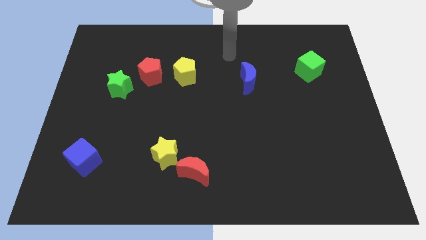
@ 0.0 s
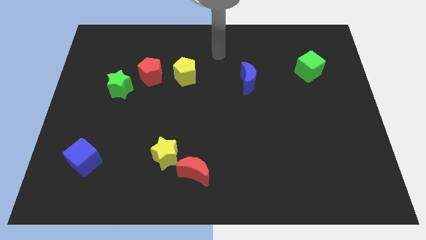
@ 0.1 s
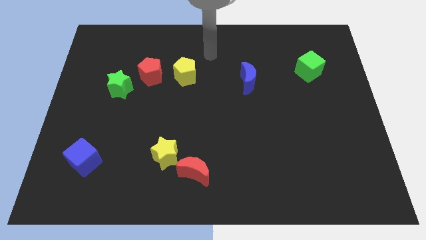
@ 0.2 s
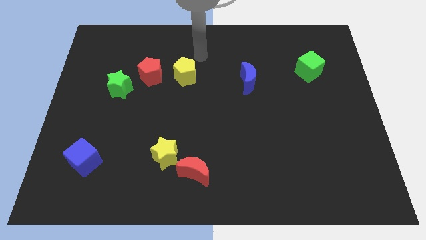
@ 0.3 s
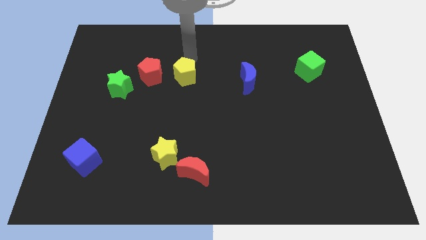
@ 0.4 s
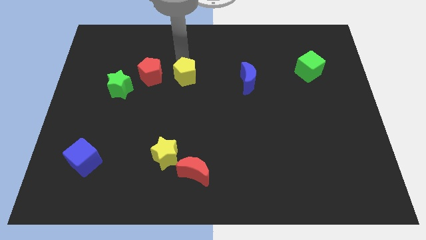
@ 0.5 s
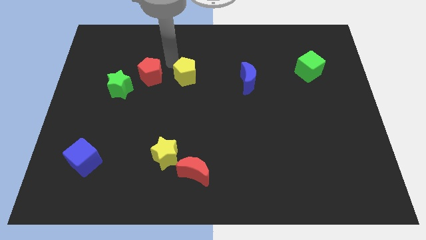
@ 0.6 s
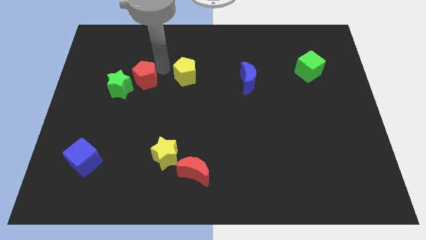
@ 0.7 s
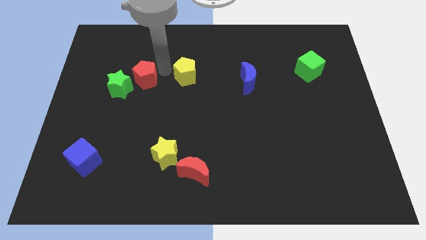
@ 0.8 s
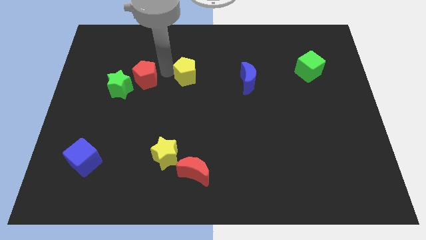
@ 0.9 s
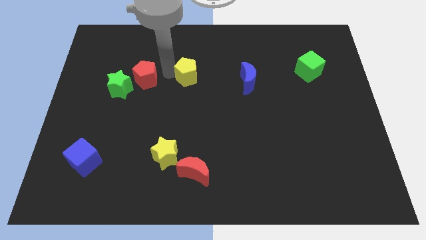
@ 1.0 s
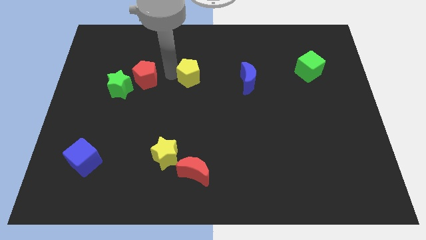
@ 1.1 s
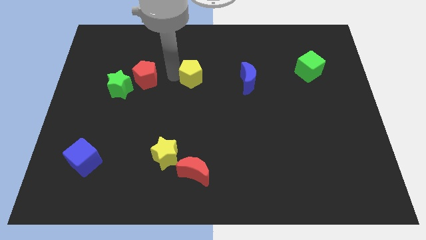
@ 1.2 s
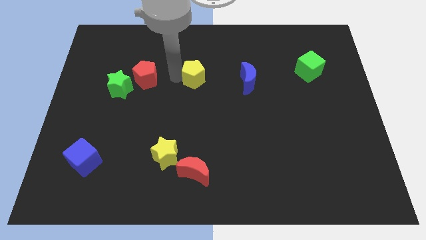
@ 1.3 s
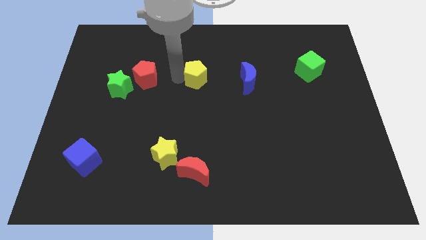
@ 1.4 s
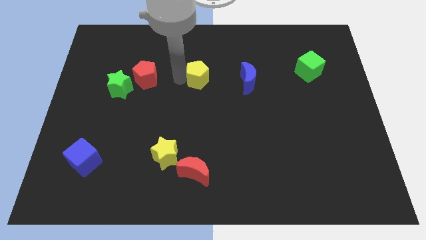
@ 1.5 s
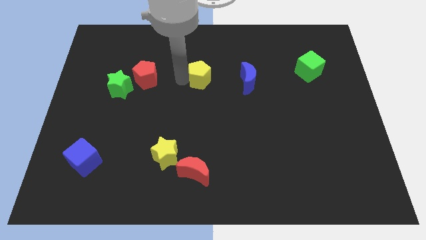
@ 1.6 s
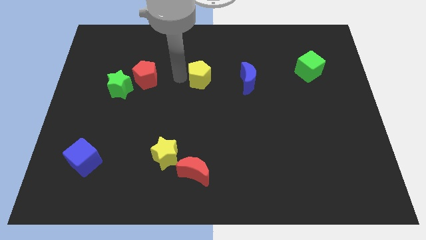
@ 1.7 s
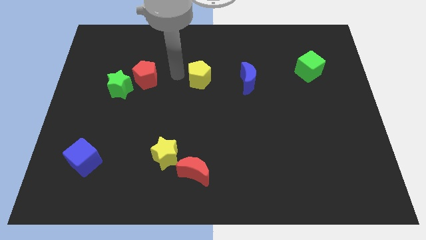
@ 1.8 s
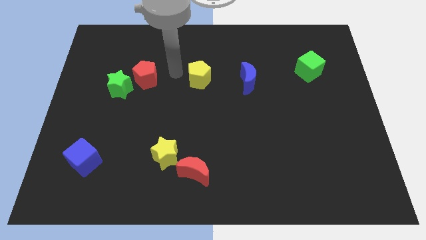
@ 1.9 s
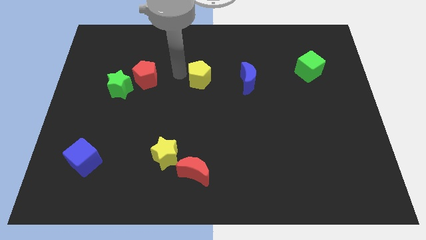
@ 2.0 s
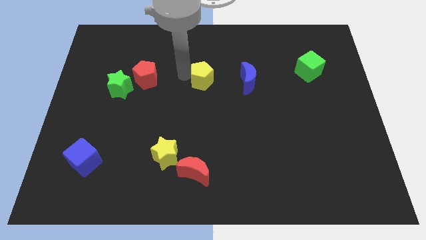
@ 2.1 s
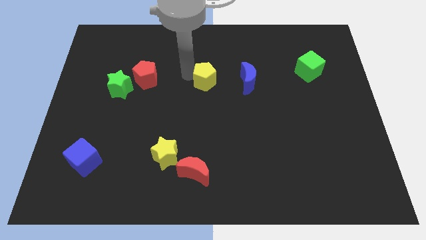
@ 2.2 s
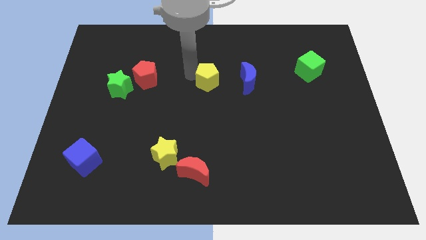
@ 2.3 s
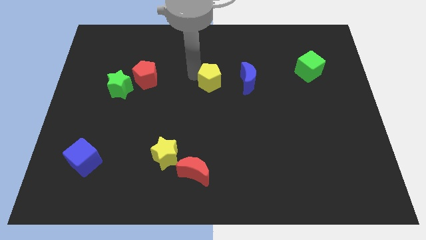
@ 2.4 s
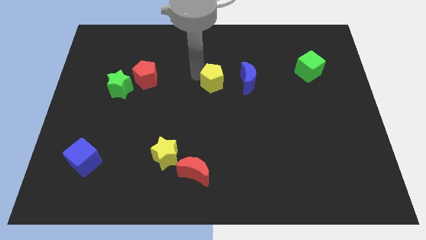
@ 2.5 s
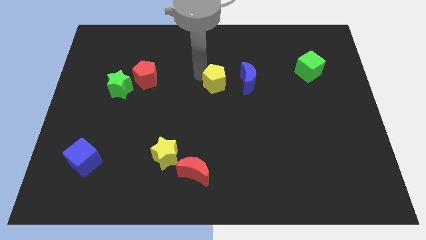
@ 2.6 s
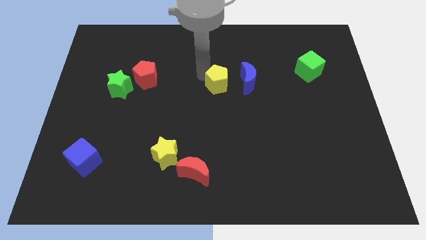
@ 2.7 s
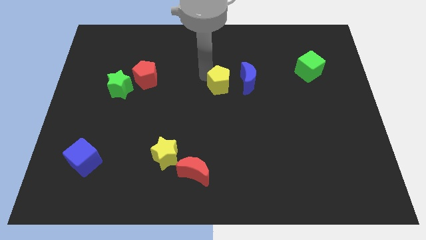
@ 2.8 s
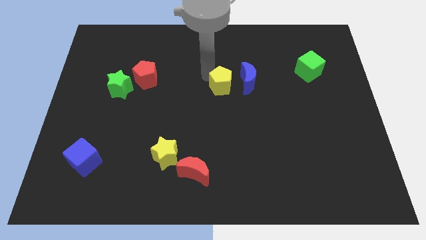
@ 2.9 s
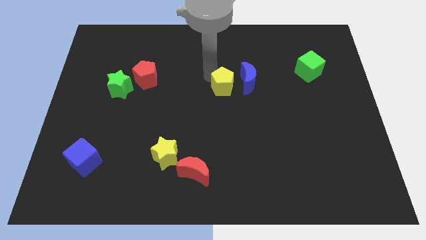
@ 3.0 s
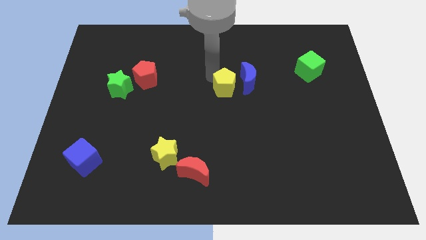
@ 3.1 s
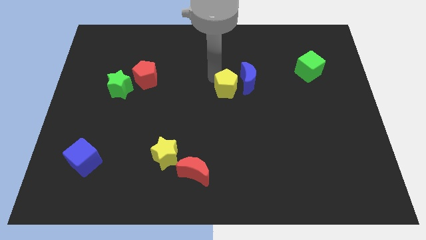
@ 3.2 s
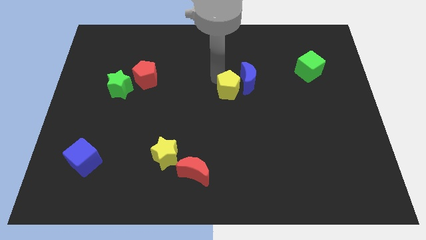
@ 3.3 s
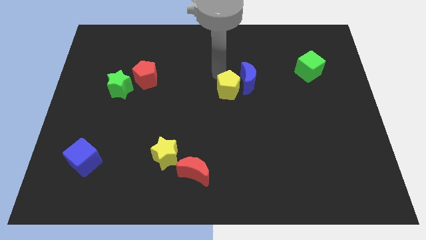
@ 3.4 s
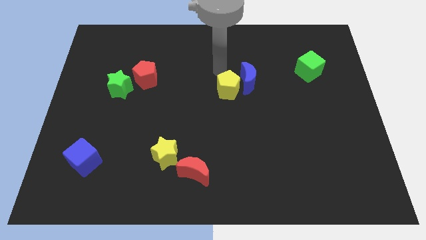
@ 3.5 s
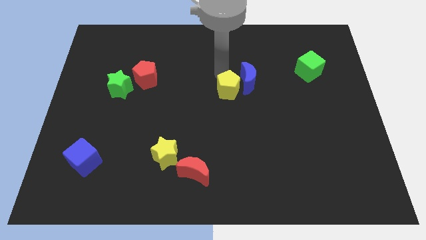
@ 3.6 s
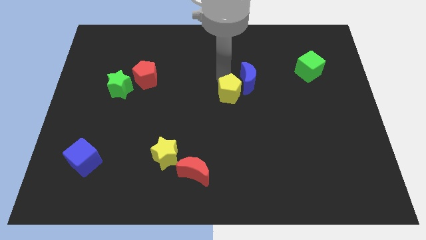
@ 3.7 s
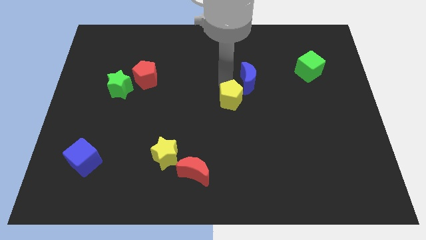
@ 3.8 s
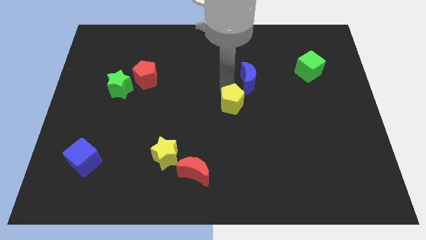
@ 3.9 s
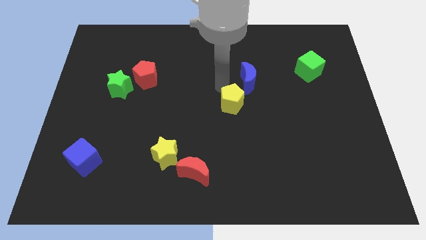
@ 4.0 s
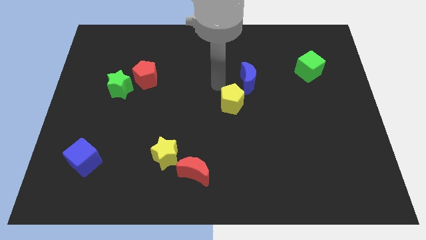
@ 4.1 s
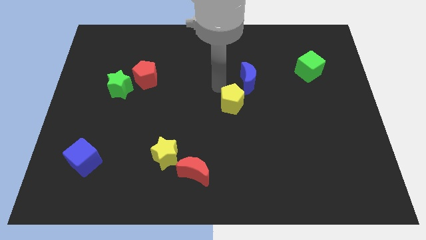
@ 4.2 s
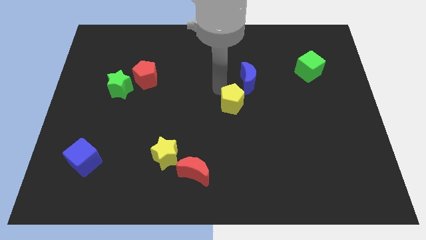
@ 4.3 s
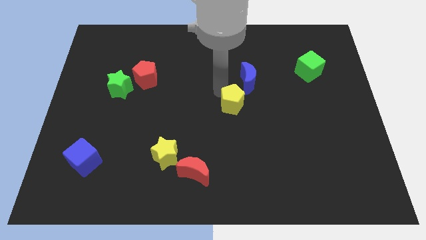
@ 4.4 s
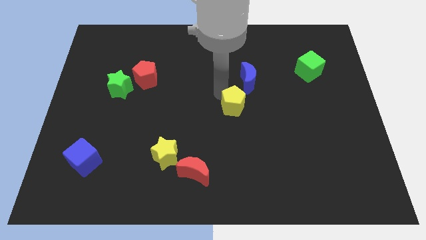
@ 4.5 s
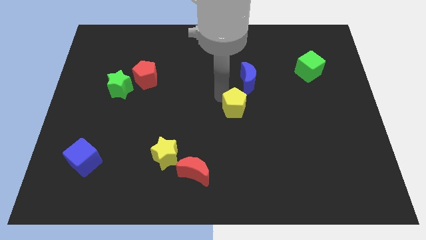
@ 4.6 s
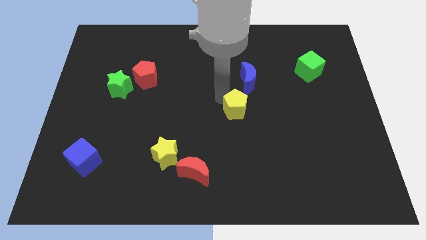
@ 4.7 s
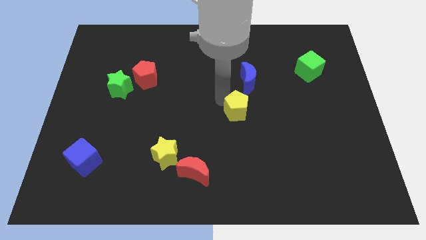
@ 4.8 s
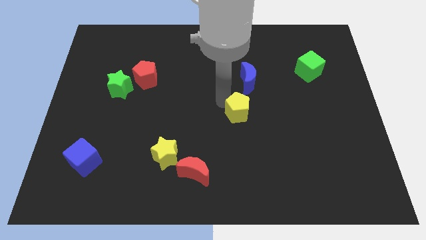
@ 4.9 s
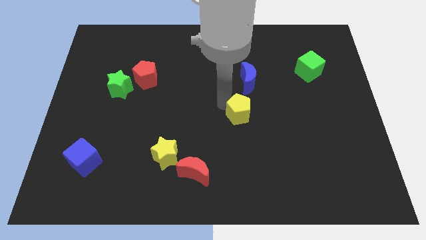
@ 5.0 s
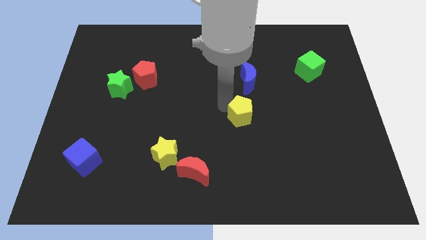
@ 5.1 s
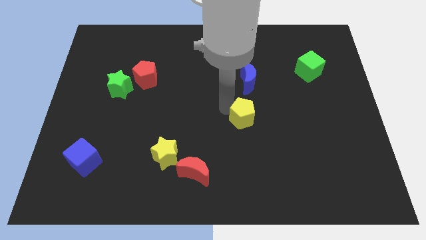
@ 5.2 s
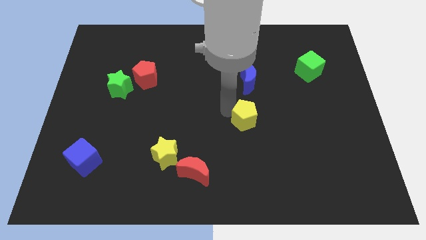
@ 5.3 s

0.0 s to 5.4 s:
move the yellow pentagon downwards and then right

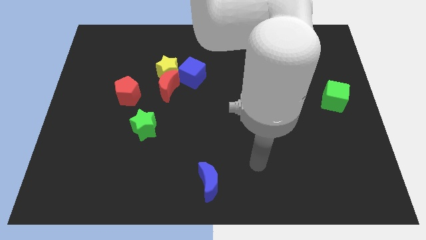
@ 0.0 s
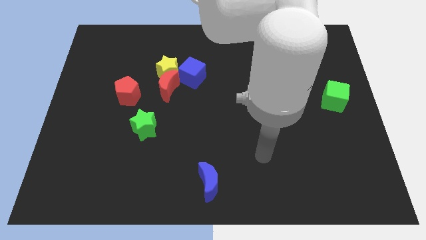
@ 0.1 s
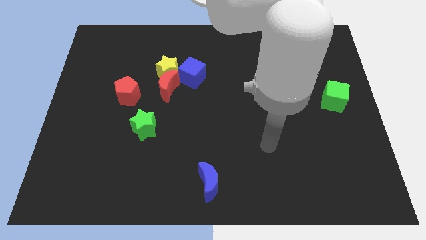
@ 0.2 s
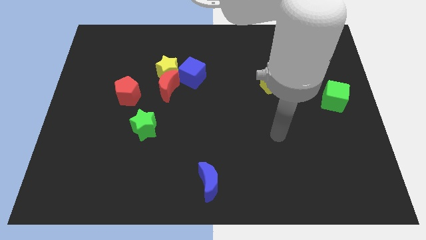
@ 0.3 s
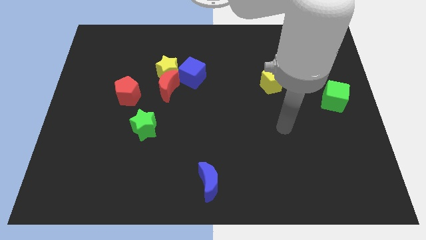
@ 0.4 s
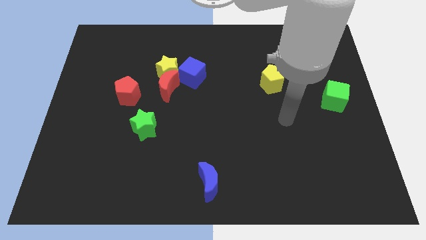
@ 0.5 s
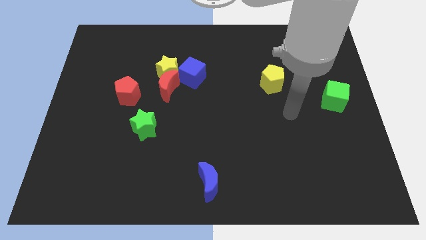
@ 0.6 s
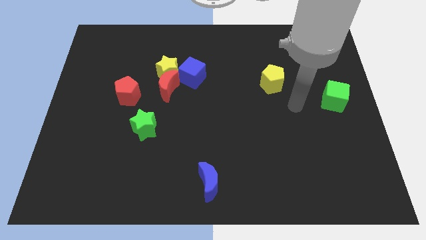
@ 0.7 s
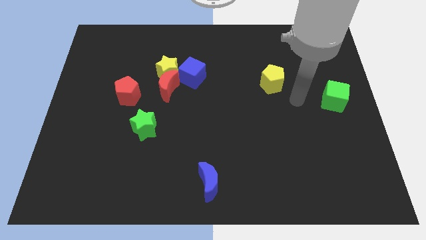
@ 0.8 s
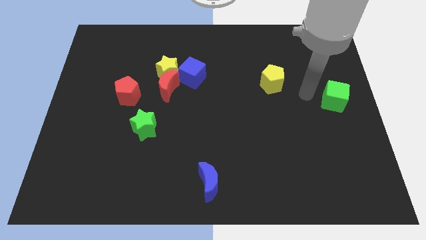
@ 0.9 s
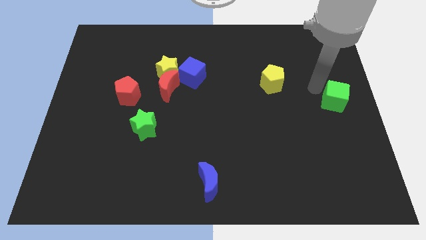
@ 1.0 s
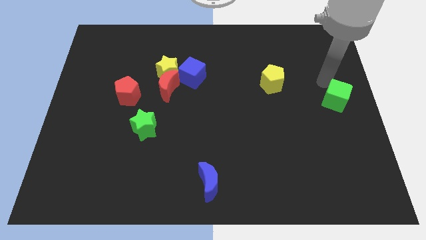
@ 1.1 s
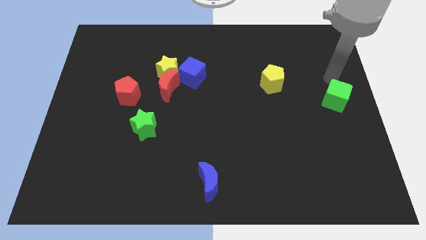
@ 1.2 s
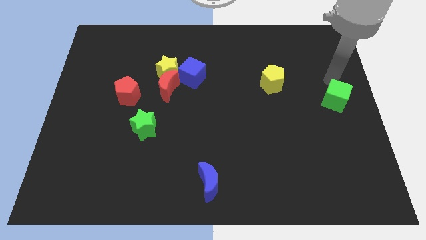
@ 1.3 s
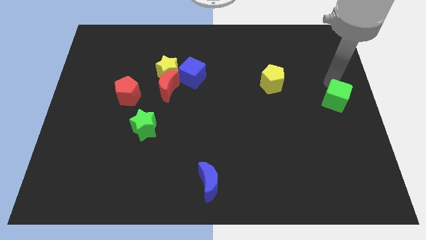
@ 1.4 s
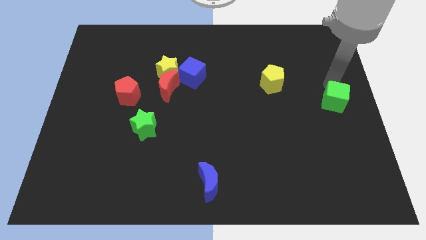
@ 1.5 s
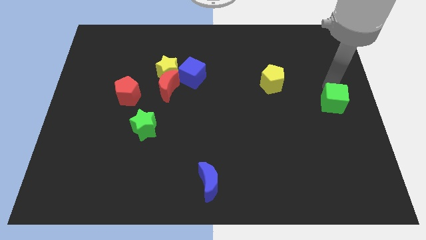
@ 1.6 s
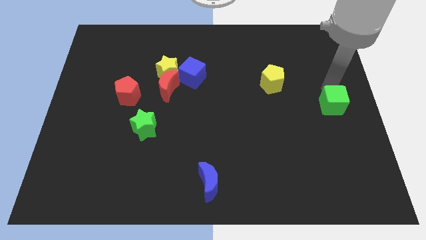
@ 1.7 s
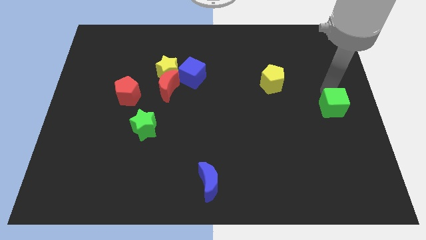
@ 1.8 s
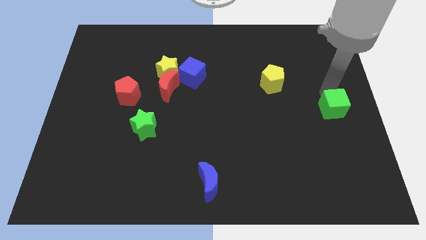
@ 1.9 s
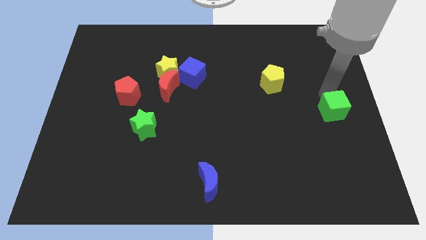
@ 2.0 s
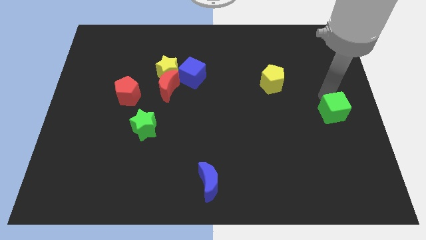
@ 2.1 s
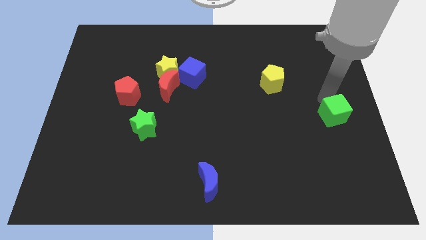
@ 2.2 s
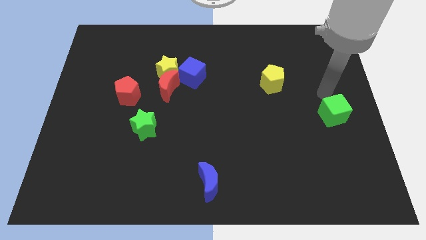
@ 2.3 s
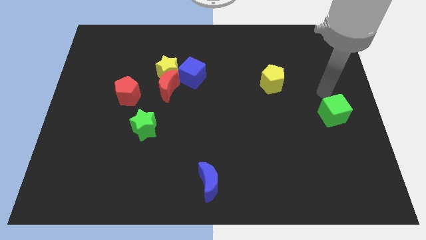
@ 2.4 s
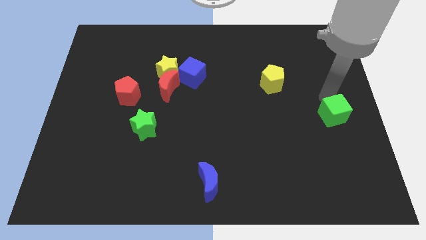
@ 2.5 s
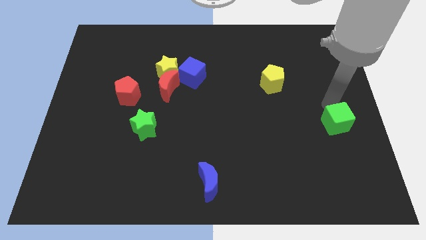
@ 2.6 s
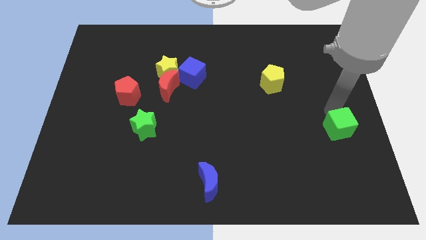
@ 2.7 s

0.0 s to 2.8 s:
move the green cube a little downwards
